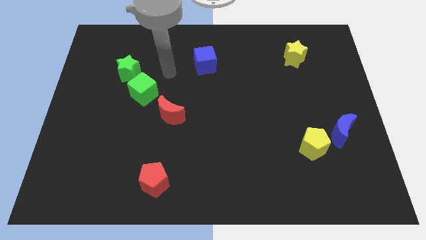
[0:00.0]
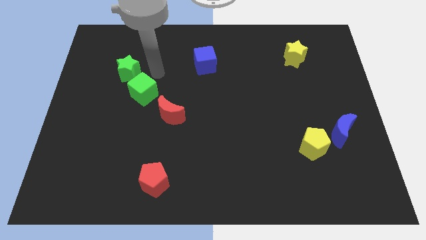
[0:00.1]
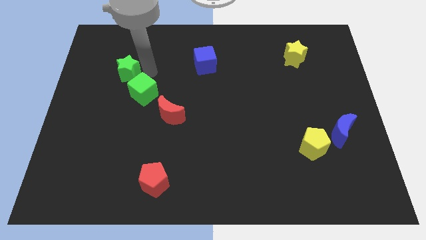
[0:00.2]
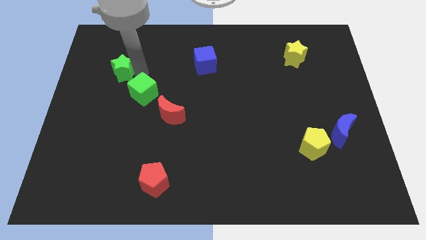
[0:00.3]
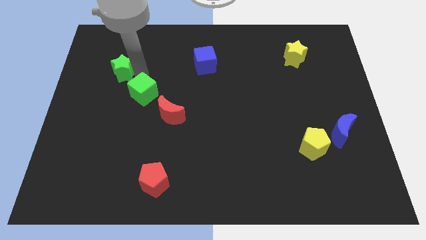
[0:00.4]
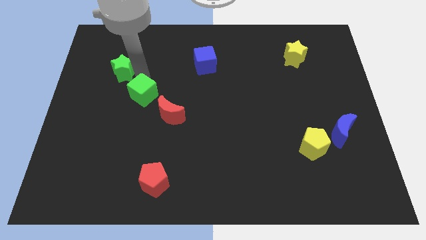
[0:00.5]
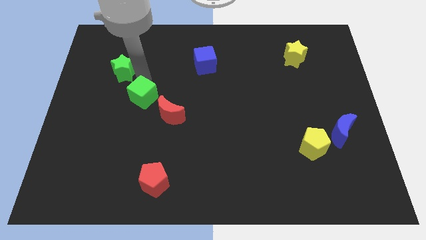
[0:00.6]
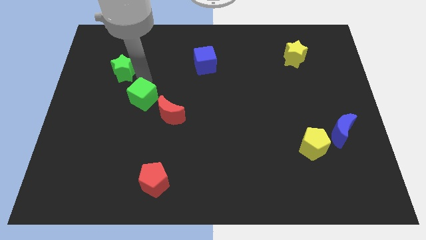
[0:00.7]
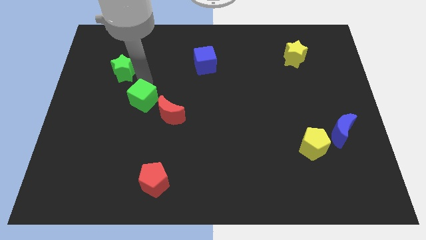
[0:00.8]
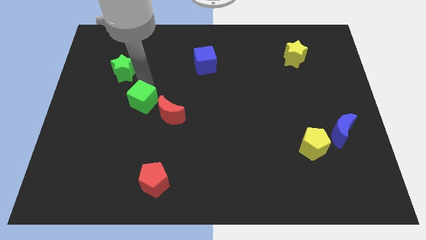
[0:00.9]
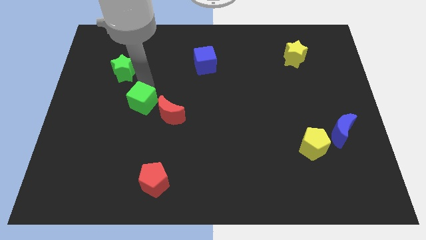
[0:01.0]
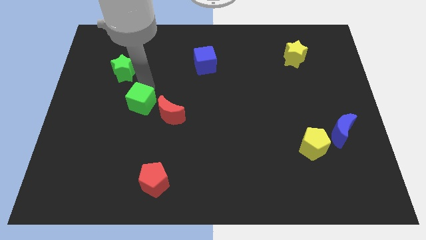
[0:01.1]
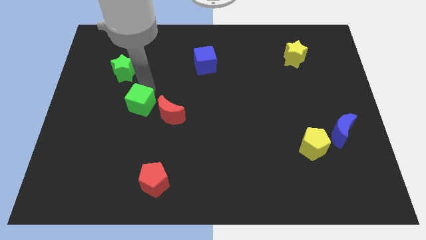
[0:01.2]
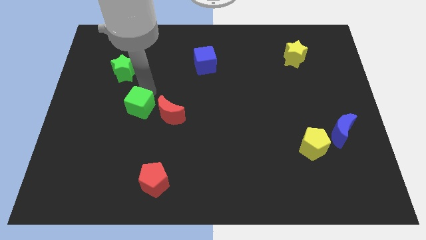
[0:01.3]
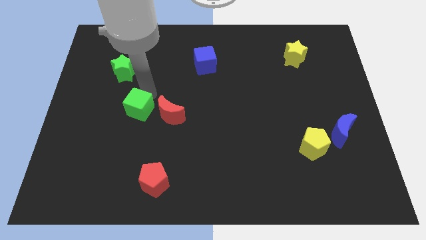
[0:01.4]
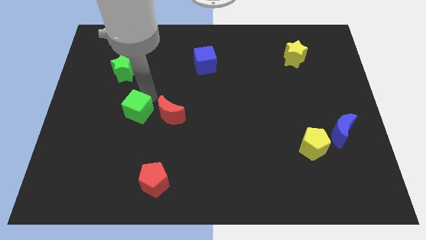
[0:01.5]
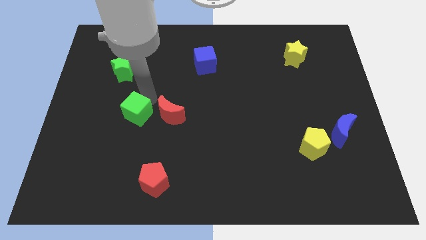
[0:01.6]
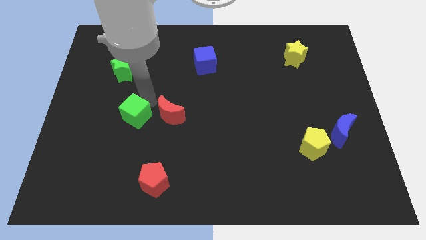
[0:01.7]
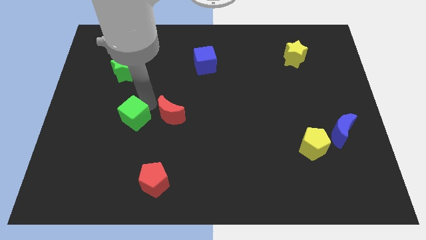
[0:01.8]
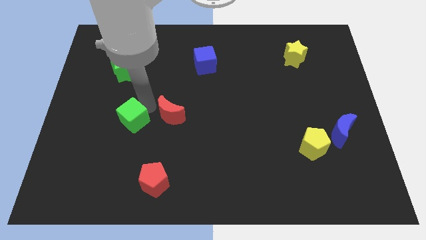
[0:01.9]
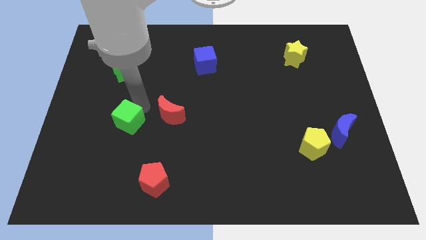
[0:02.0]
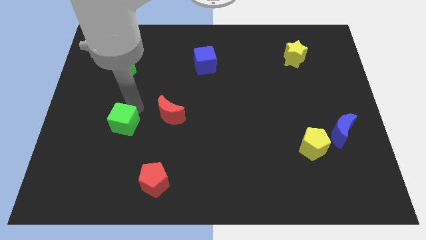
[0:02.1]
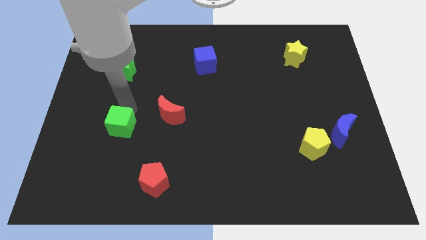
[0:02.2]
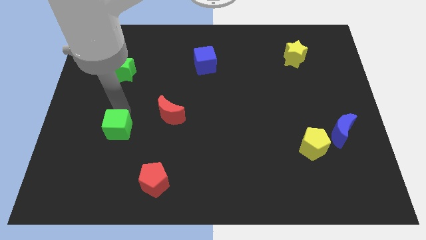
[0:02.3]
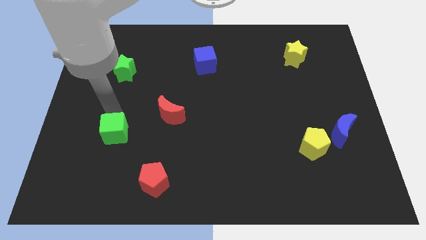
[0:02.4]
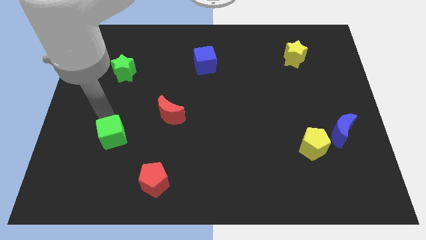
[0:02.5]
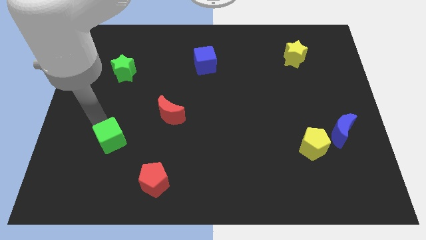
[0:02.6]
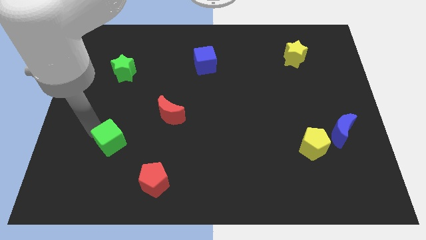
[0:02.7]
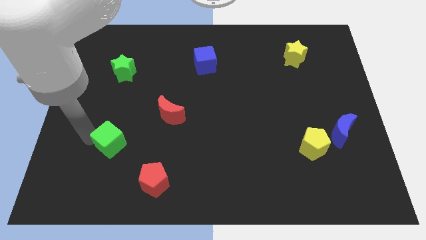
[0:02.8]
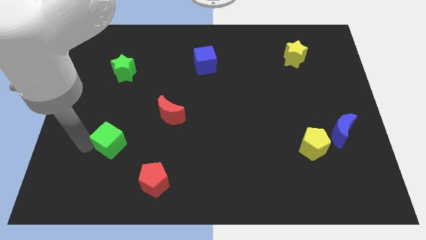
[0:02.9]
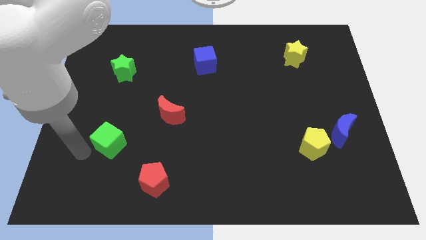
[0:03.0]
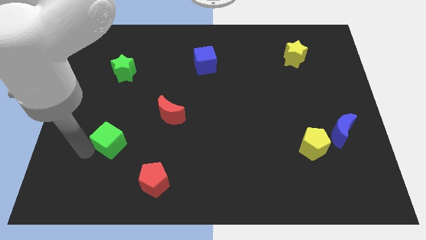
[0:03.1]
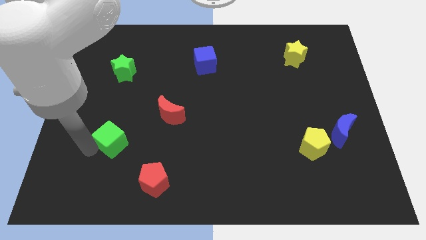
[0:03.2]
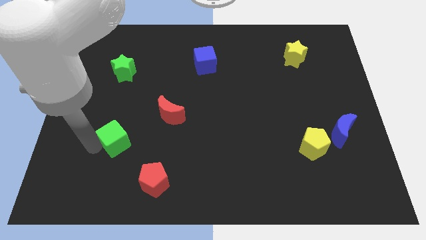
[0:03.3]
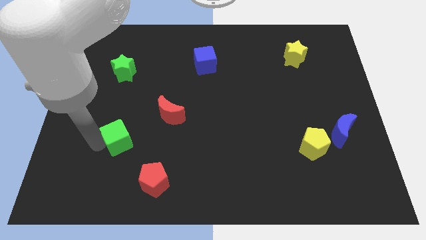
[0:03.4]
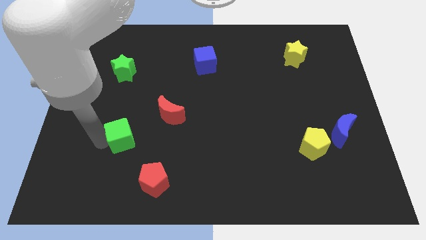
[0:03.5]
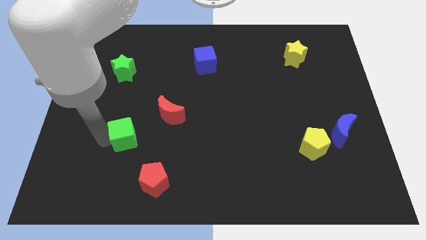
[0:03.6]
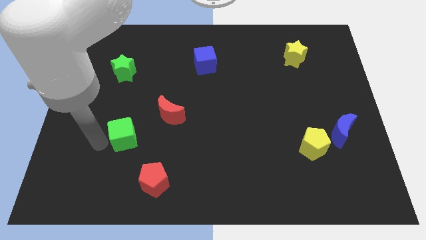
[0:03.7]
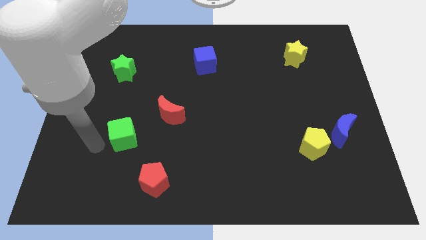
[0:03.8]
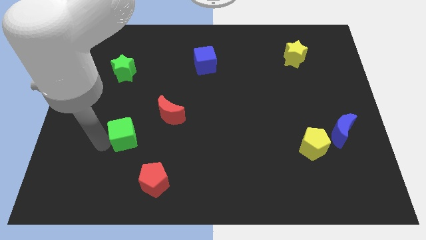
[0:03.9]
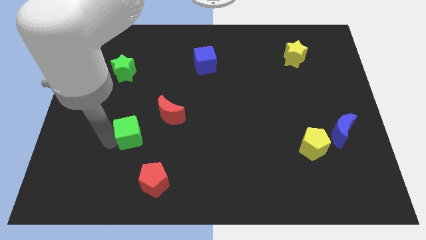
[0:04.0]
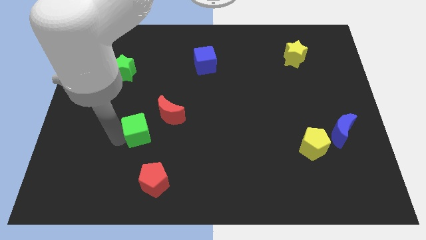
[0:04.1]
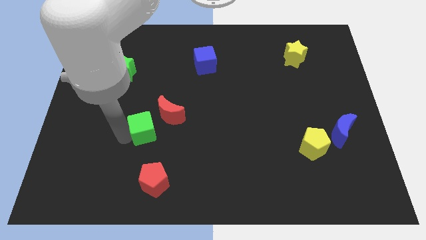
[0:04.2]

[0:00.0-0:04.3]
put the green cube above the red pentagon

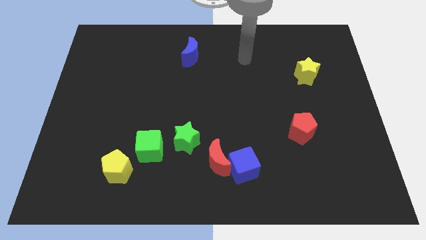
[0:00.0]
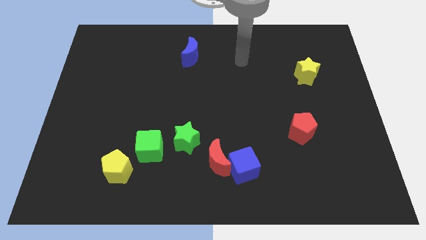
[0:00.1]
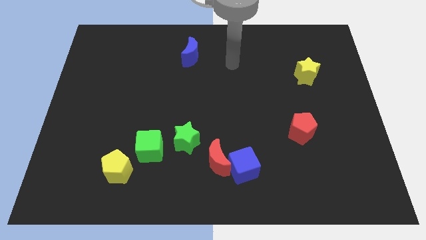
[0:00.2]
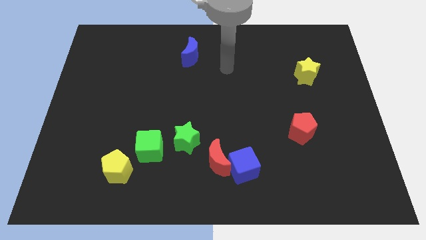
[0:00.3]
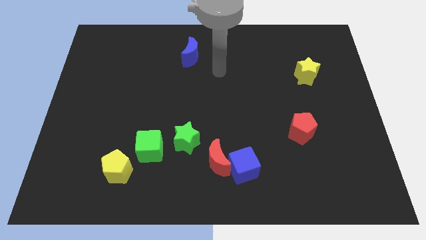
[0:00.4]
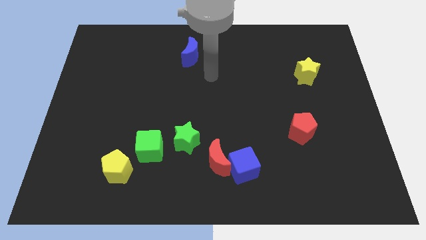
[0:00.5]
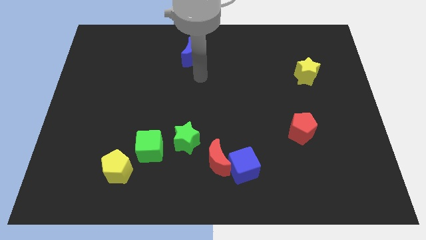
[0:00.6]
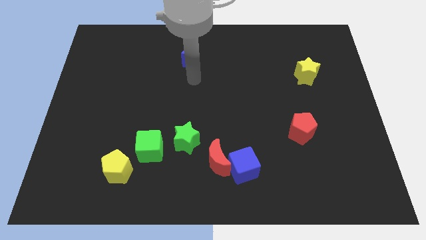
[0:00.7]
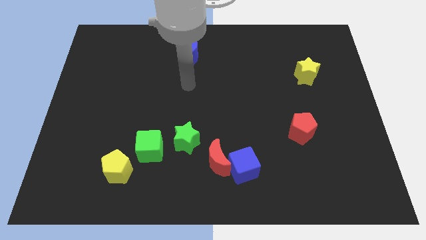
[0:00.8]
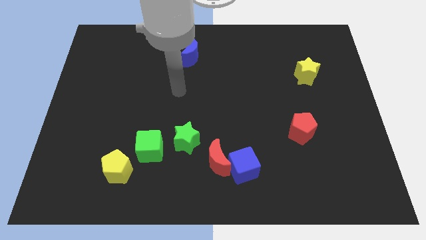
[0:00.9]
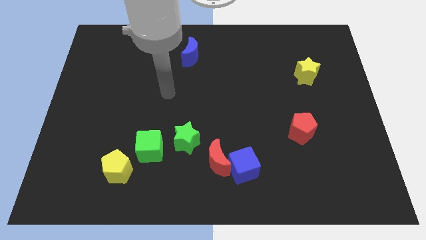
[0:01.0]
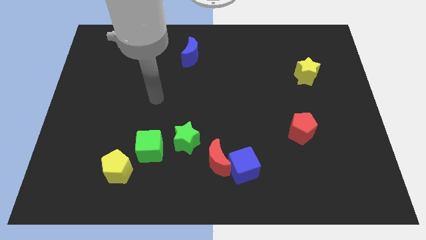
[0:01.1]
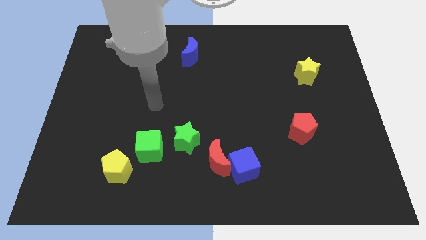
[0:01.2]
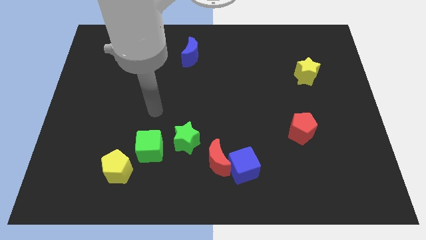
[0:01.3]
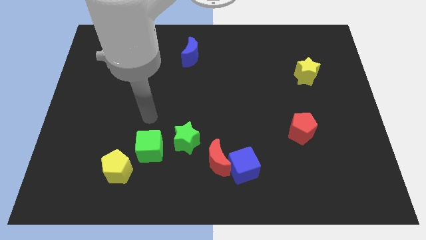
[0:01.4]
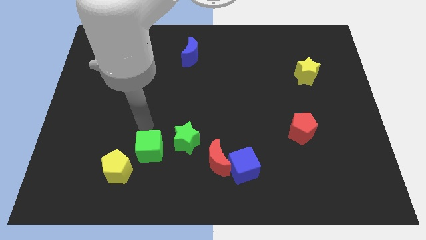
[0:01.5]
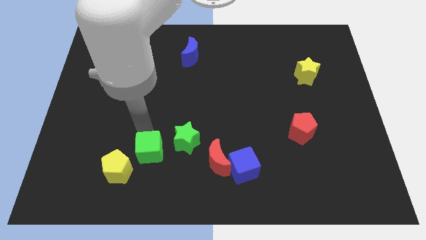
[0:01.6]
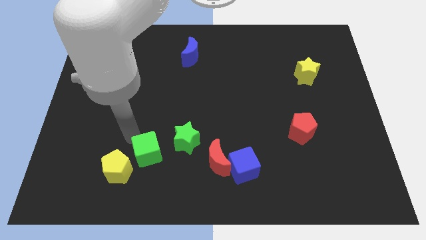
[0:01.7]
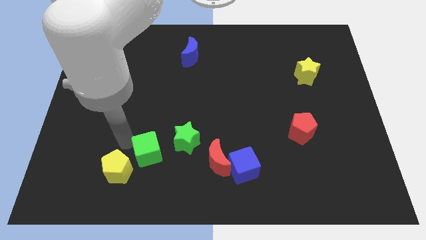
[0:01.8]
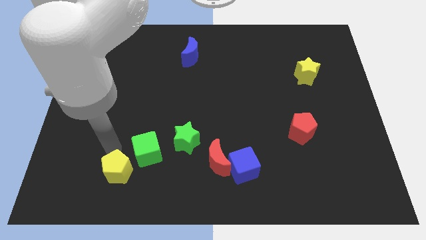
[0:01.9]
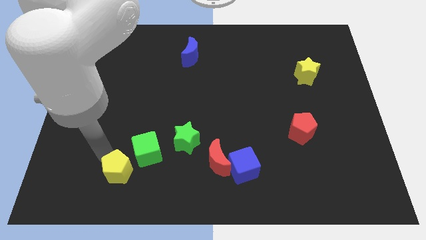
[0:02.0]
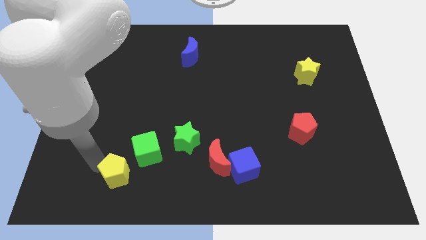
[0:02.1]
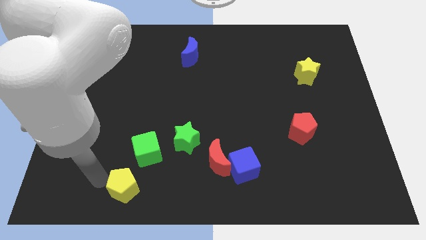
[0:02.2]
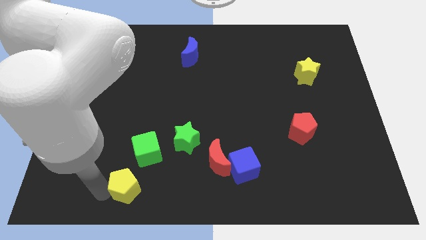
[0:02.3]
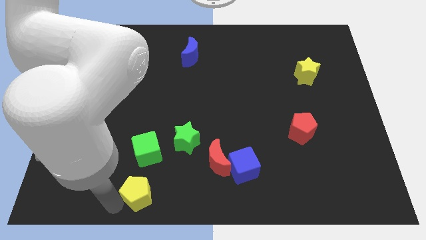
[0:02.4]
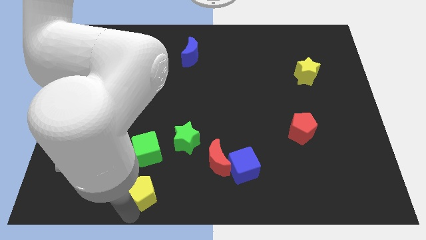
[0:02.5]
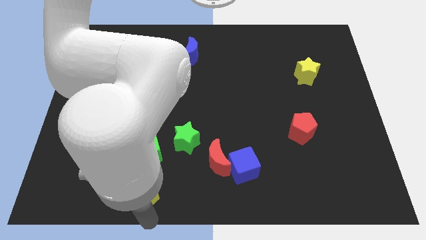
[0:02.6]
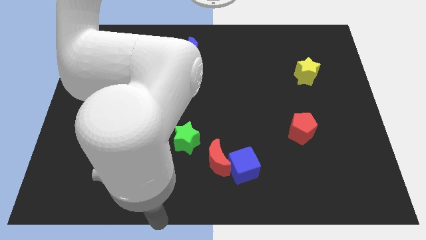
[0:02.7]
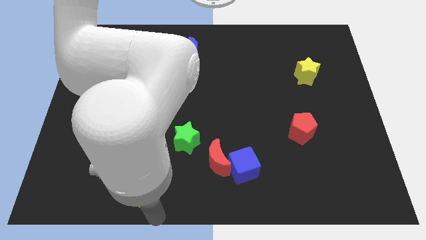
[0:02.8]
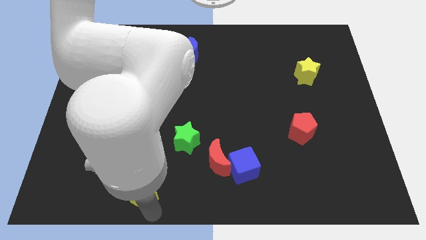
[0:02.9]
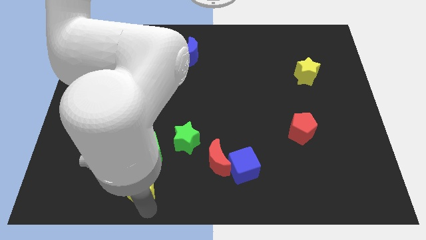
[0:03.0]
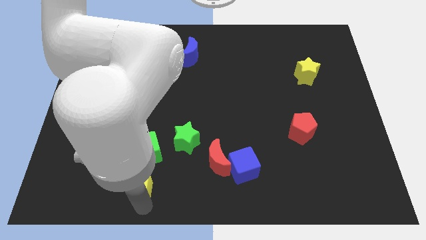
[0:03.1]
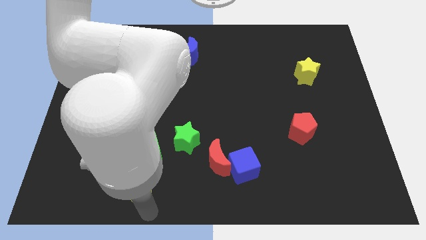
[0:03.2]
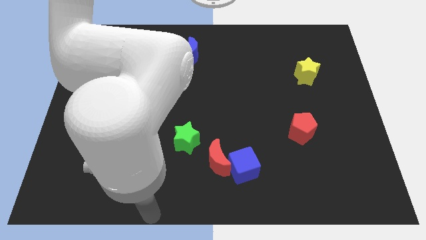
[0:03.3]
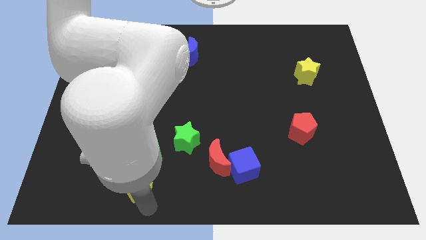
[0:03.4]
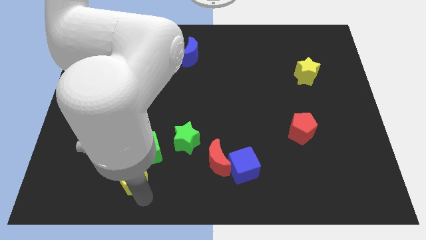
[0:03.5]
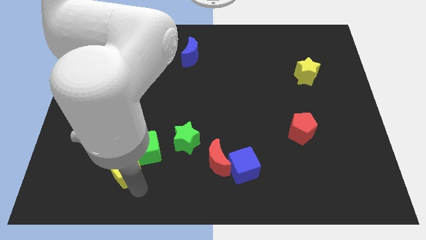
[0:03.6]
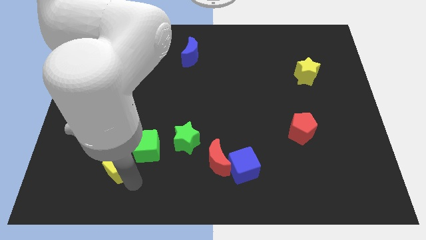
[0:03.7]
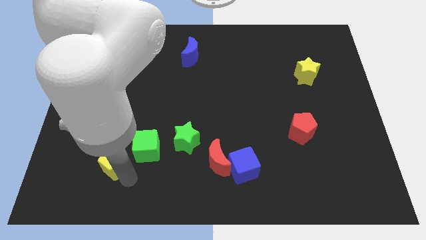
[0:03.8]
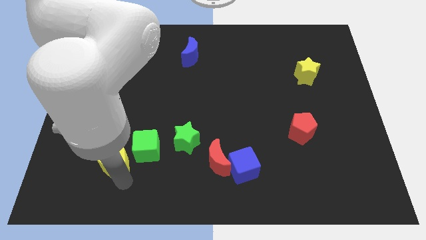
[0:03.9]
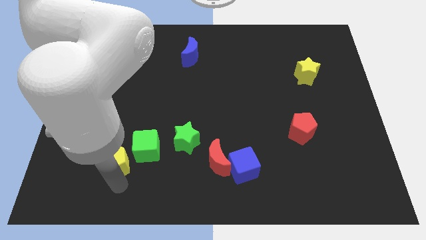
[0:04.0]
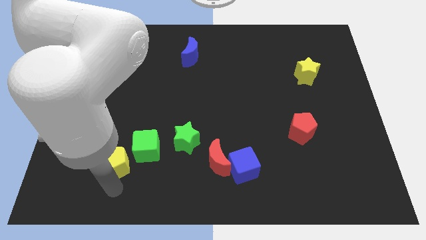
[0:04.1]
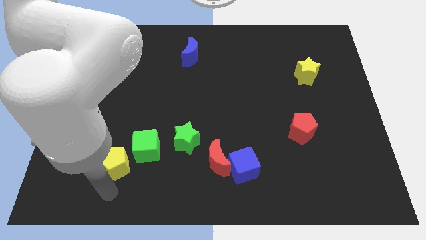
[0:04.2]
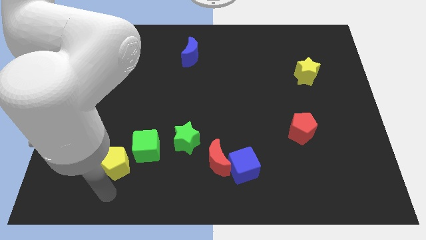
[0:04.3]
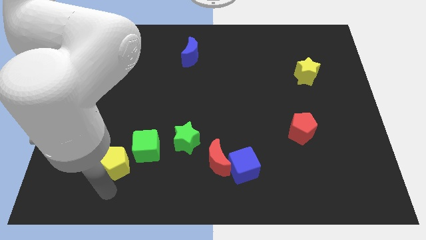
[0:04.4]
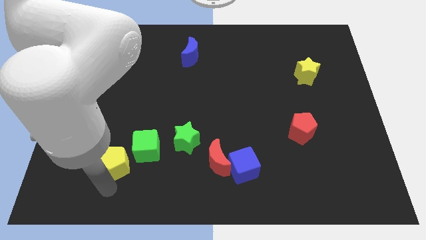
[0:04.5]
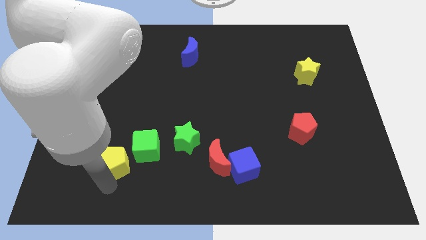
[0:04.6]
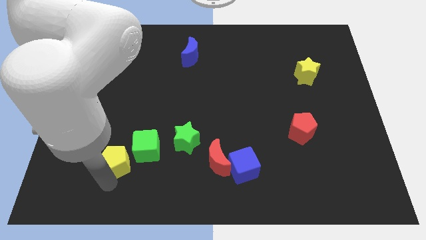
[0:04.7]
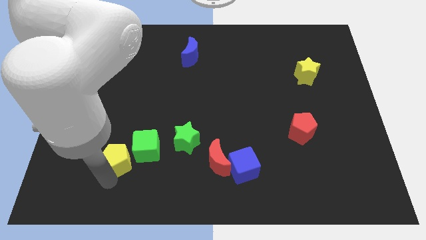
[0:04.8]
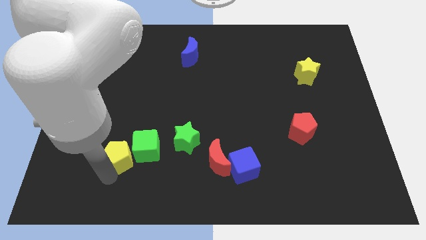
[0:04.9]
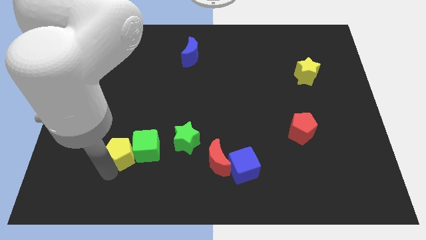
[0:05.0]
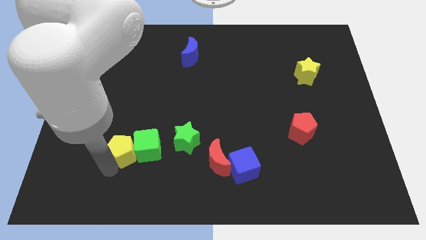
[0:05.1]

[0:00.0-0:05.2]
slide the yellow pentagon to the top left side of the green cube
